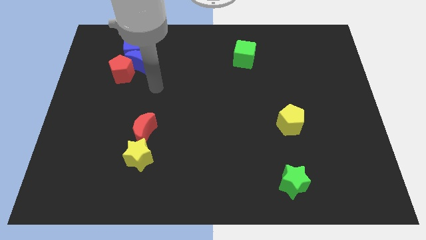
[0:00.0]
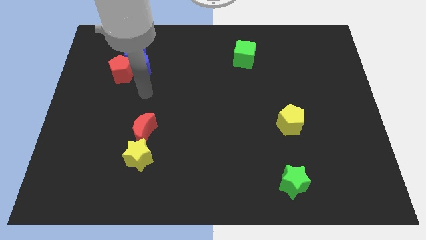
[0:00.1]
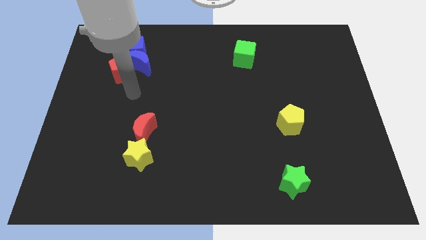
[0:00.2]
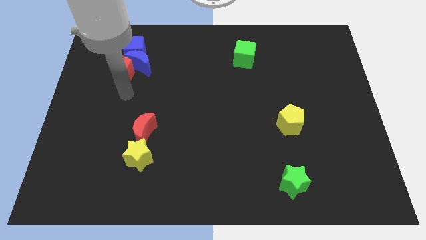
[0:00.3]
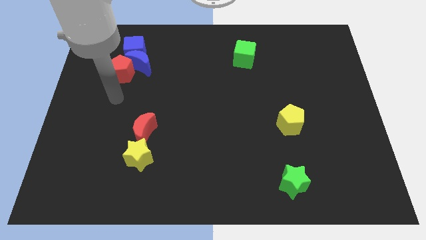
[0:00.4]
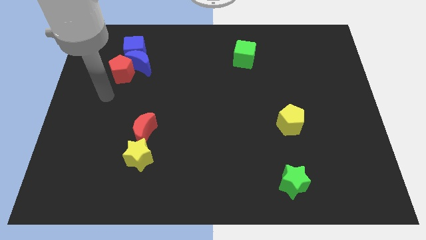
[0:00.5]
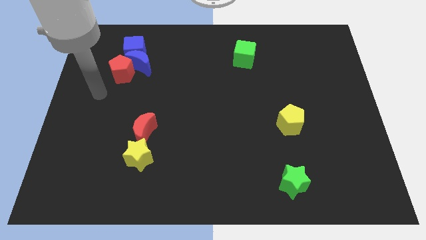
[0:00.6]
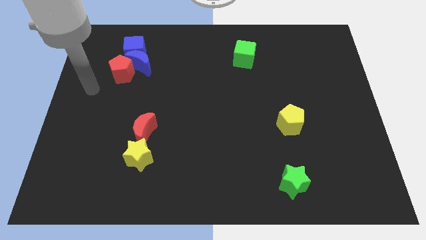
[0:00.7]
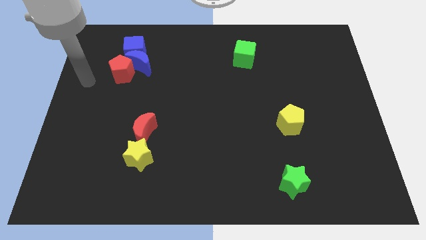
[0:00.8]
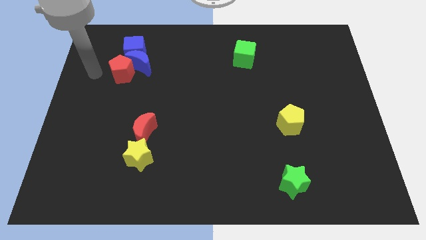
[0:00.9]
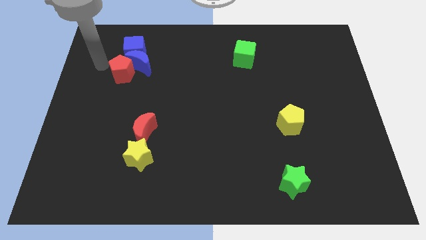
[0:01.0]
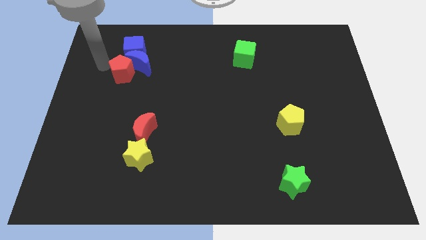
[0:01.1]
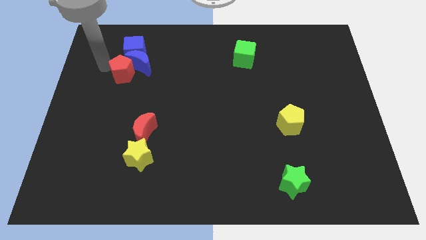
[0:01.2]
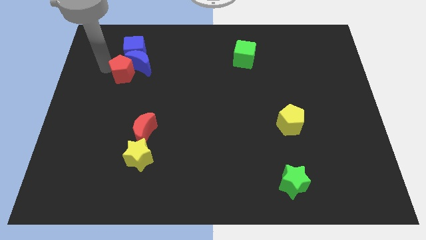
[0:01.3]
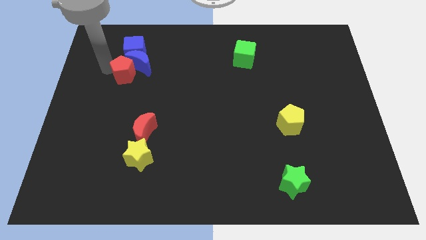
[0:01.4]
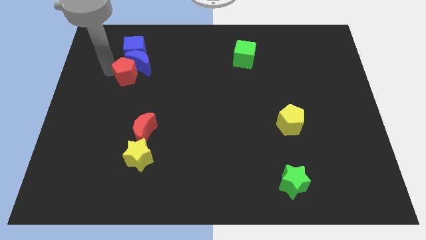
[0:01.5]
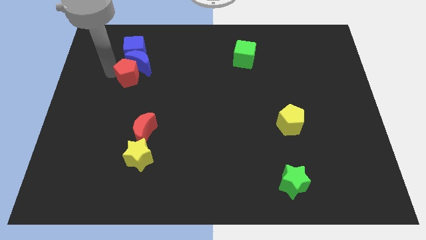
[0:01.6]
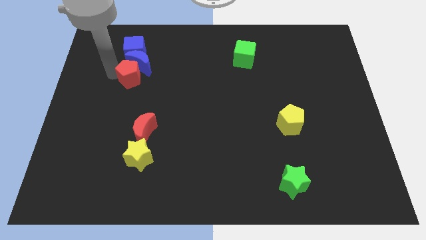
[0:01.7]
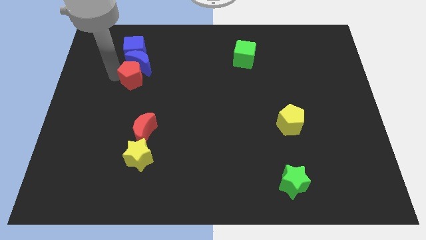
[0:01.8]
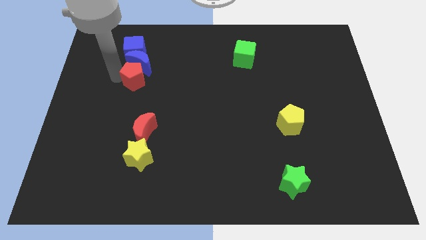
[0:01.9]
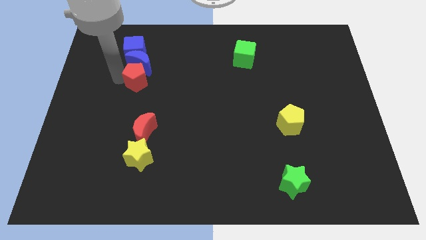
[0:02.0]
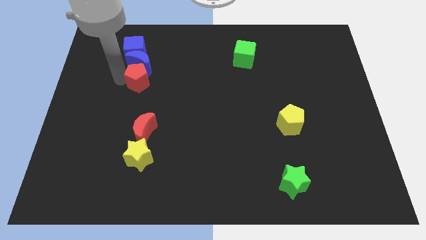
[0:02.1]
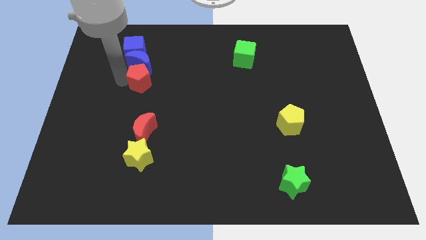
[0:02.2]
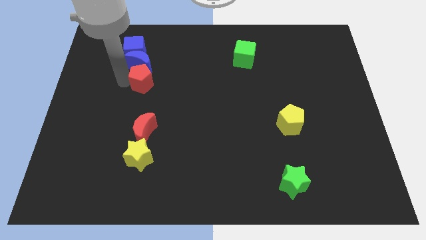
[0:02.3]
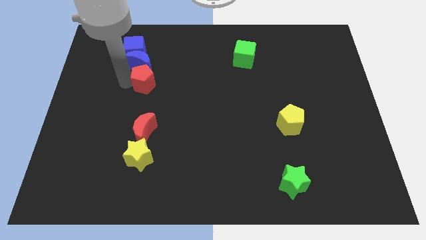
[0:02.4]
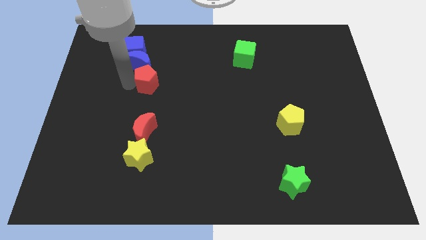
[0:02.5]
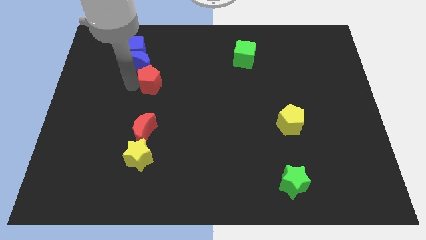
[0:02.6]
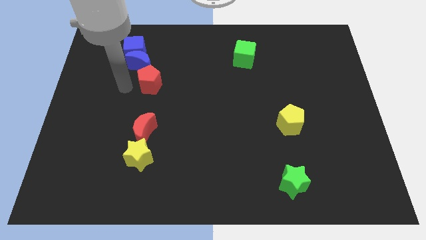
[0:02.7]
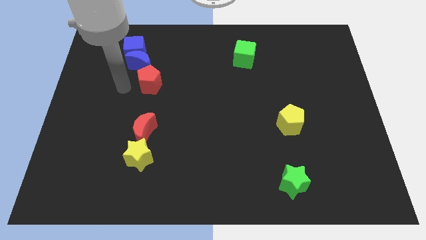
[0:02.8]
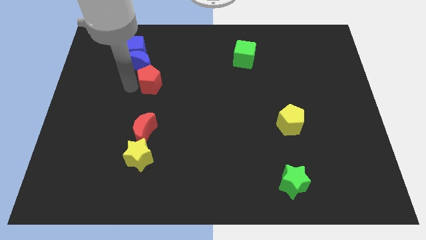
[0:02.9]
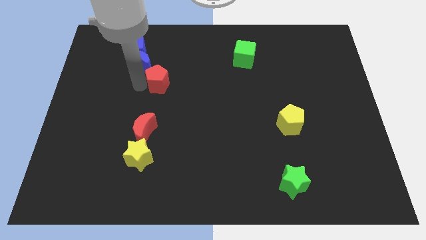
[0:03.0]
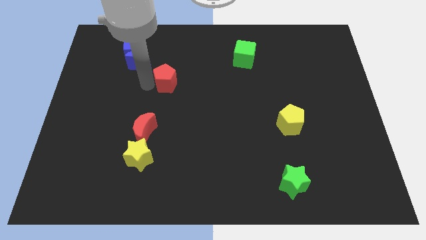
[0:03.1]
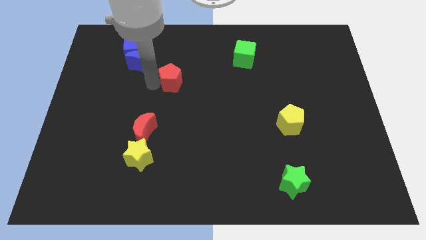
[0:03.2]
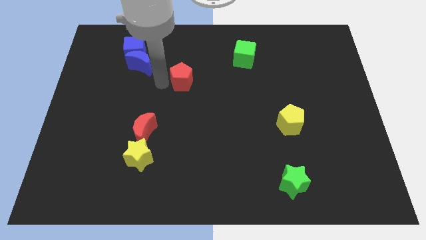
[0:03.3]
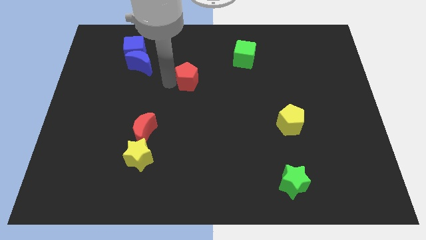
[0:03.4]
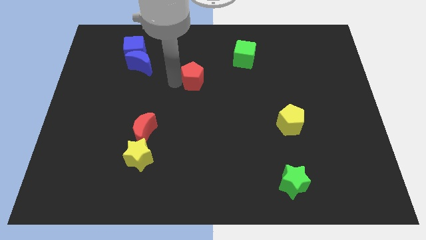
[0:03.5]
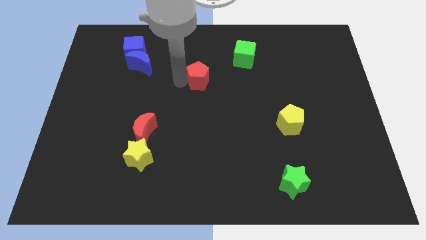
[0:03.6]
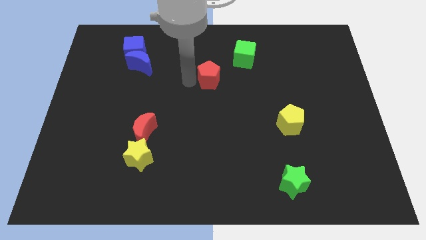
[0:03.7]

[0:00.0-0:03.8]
move the red pentagon to the right

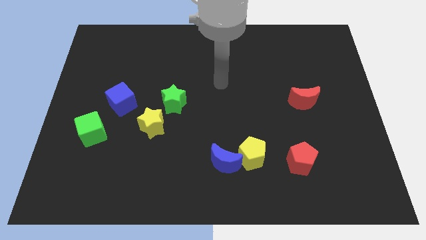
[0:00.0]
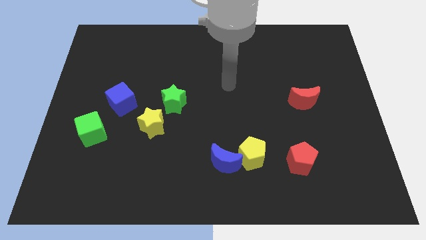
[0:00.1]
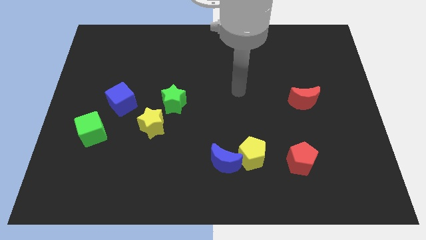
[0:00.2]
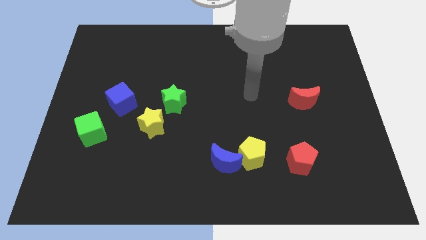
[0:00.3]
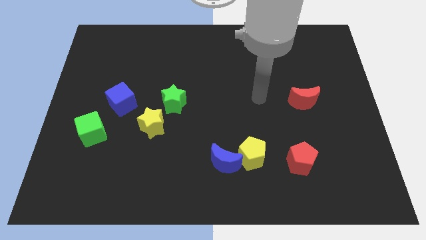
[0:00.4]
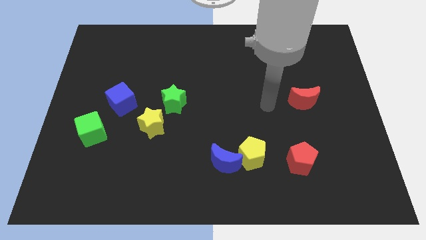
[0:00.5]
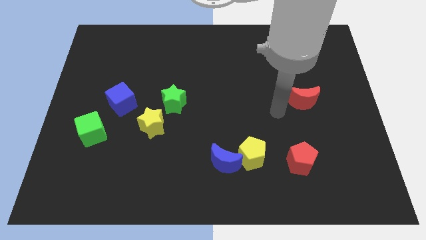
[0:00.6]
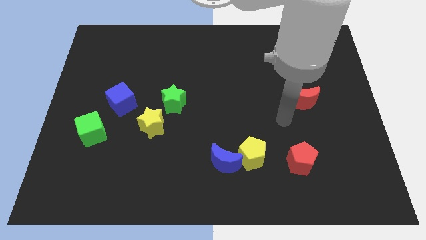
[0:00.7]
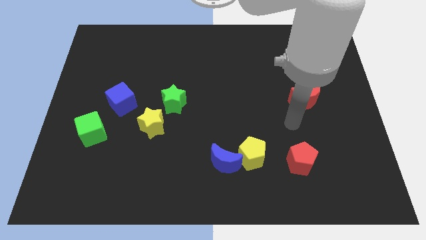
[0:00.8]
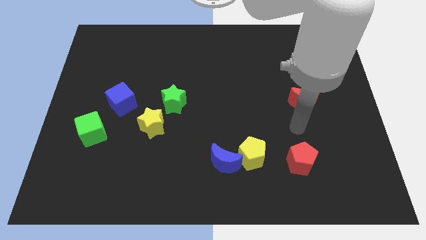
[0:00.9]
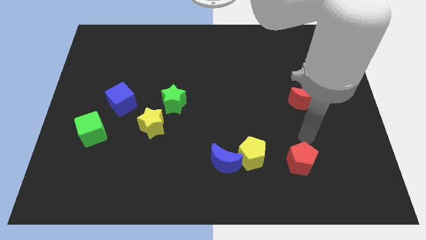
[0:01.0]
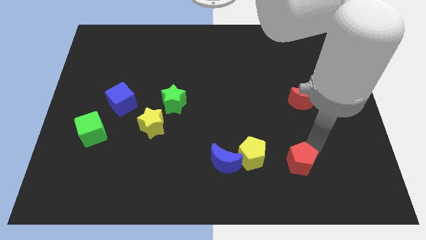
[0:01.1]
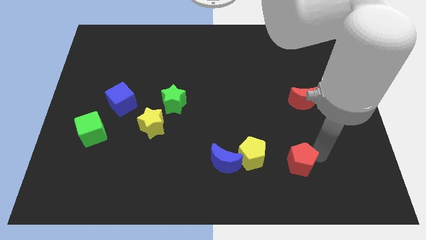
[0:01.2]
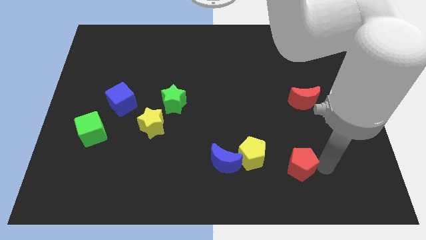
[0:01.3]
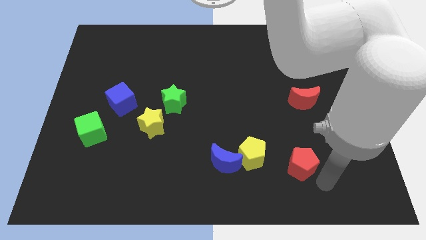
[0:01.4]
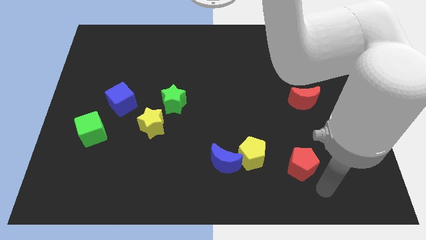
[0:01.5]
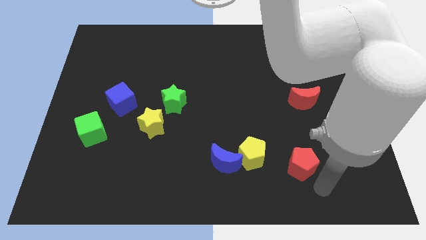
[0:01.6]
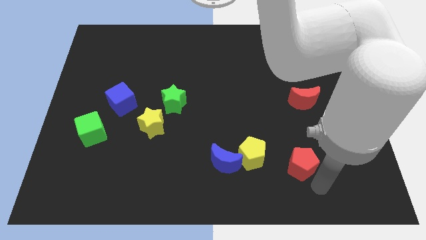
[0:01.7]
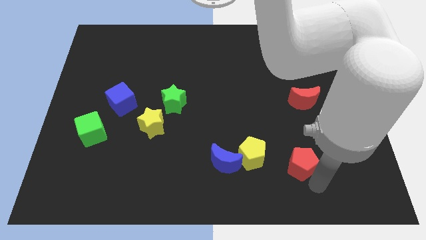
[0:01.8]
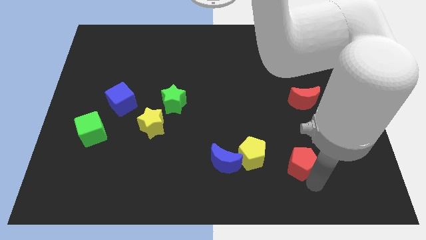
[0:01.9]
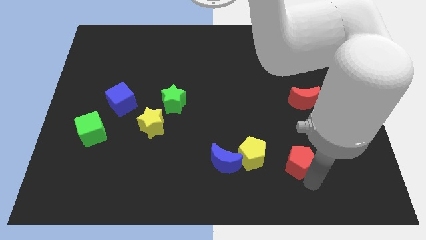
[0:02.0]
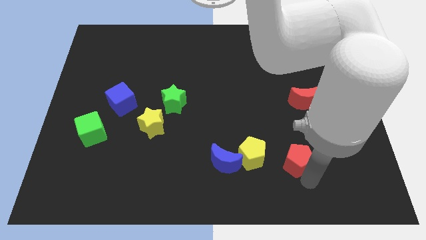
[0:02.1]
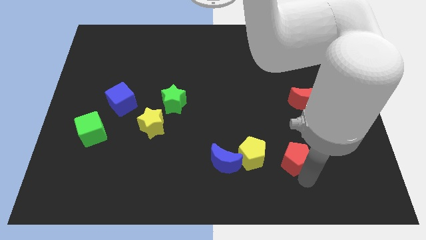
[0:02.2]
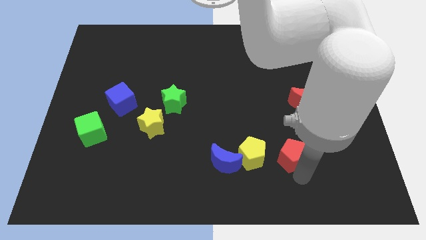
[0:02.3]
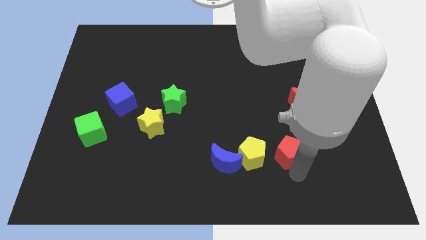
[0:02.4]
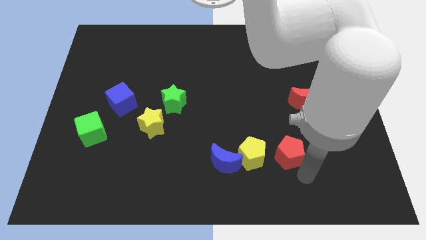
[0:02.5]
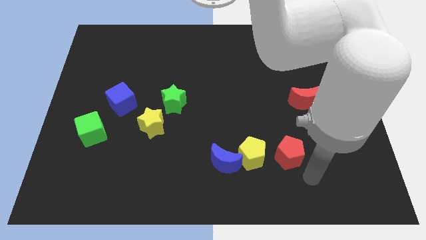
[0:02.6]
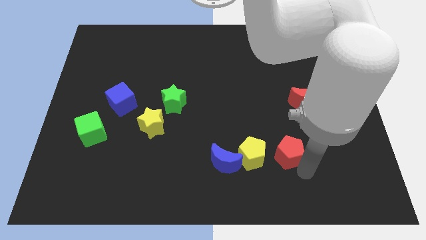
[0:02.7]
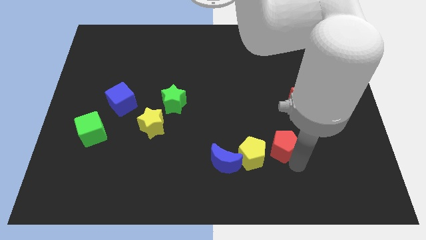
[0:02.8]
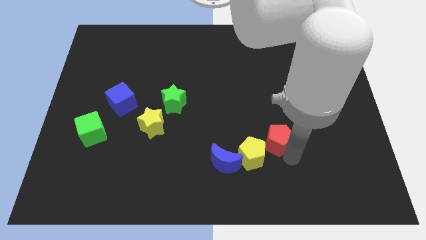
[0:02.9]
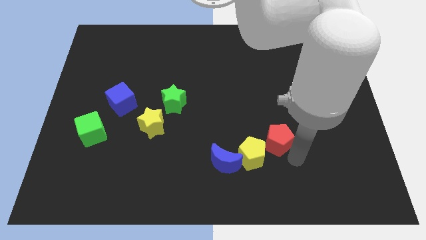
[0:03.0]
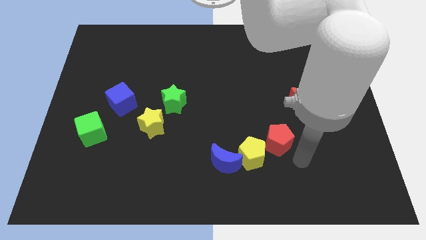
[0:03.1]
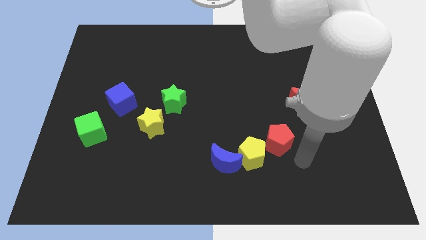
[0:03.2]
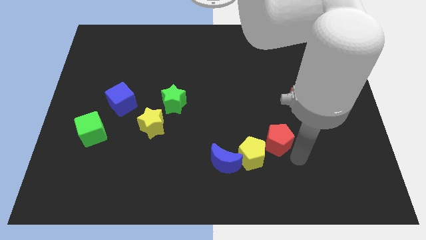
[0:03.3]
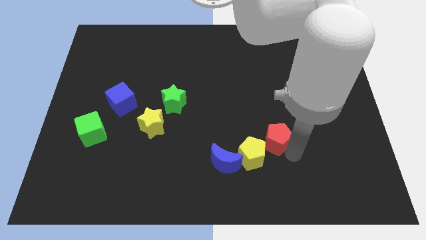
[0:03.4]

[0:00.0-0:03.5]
slightly move the red pentagon upwards and left

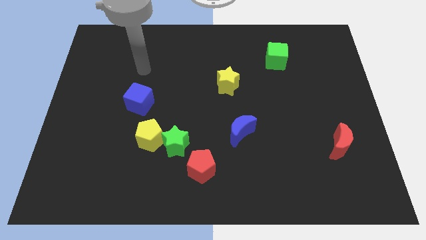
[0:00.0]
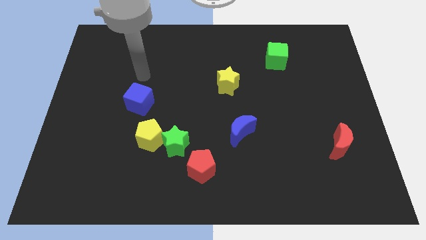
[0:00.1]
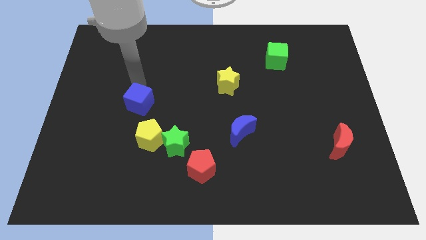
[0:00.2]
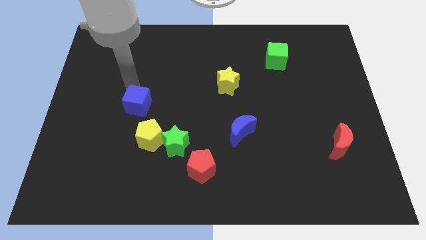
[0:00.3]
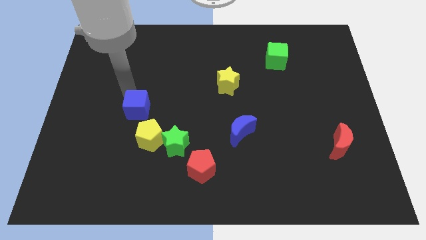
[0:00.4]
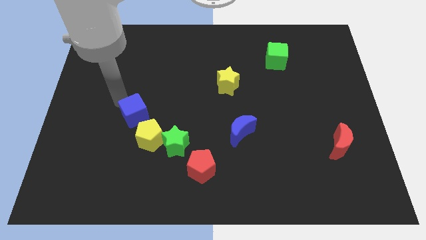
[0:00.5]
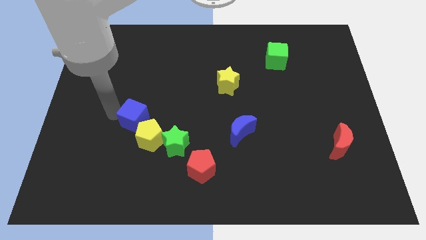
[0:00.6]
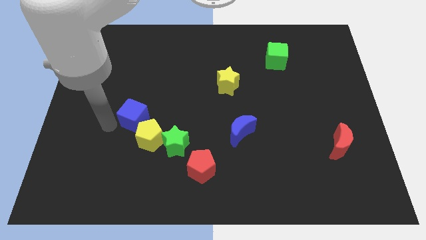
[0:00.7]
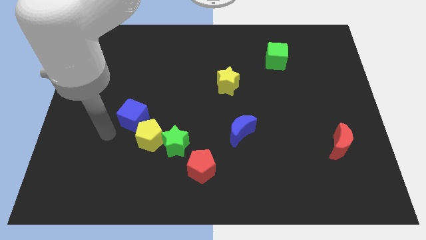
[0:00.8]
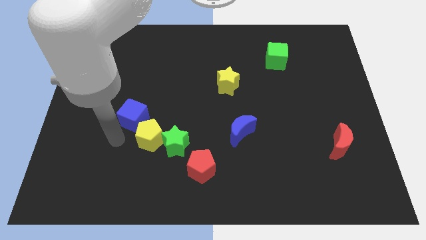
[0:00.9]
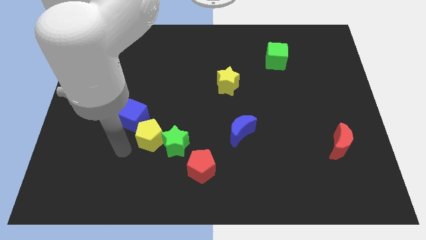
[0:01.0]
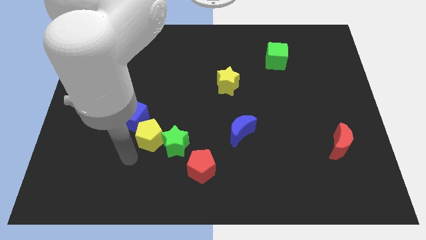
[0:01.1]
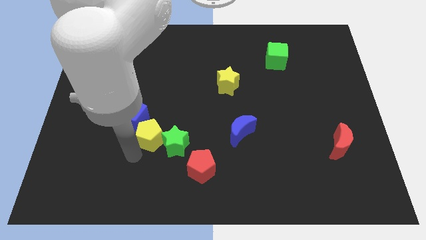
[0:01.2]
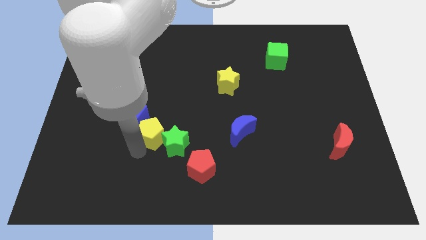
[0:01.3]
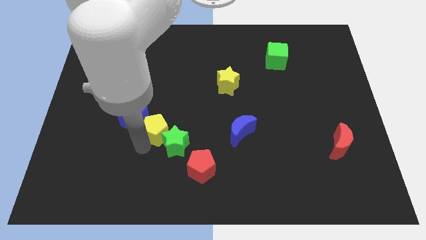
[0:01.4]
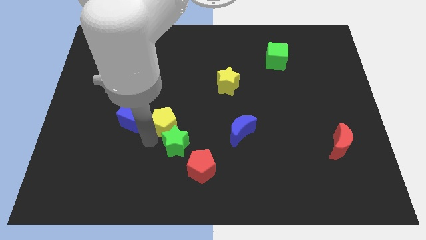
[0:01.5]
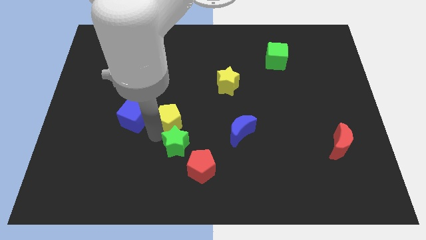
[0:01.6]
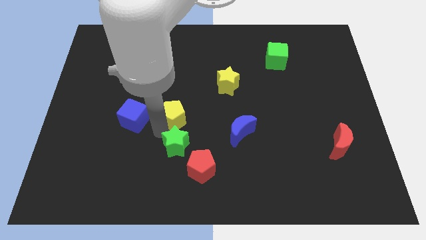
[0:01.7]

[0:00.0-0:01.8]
slide the yellow pentagon up and right diagonally a bit
